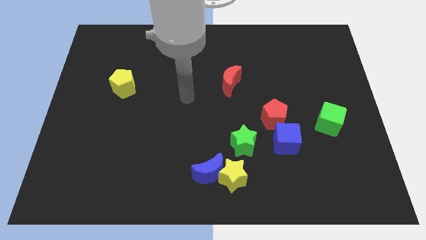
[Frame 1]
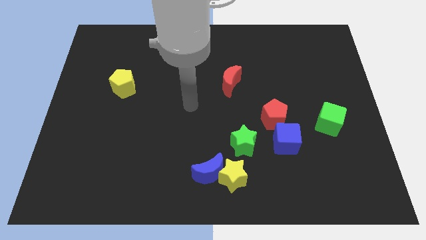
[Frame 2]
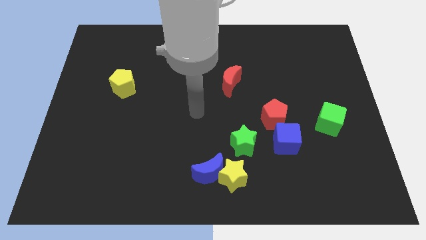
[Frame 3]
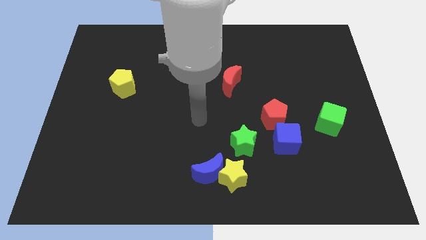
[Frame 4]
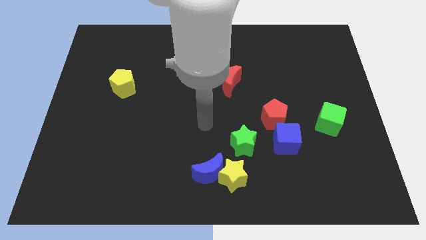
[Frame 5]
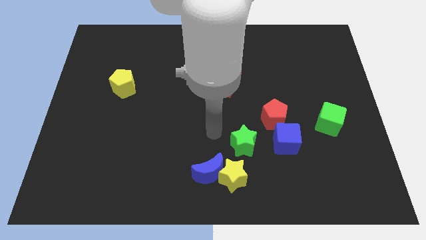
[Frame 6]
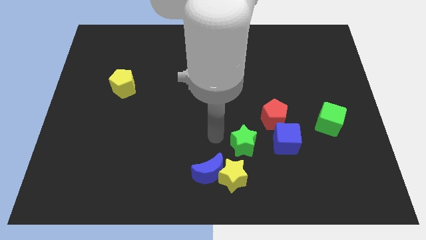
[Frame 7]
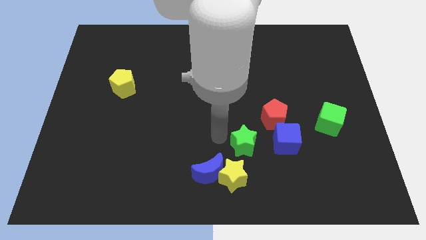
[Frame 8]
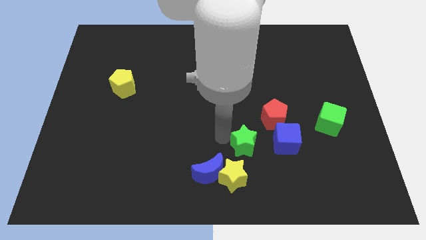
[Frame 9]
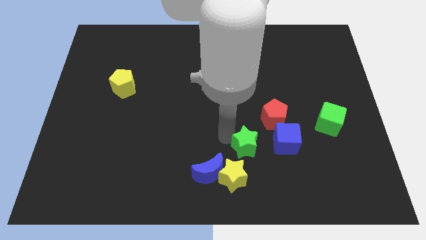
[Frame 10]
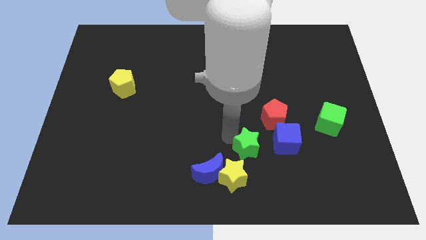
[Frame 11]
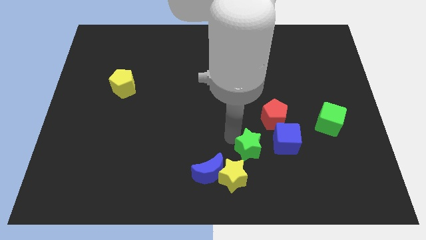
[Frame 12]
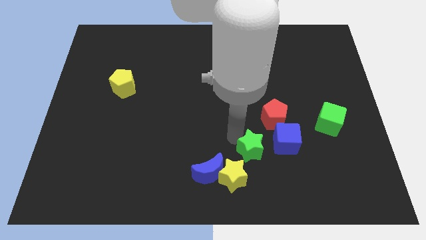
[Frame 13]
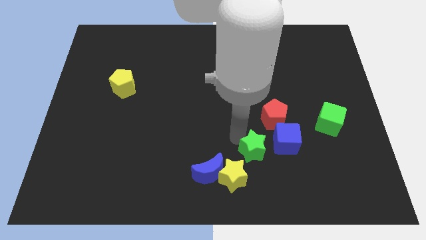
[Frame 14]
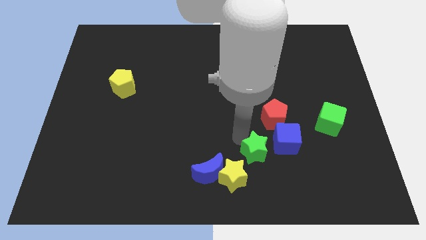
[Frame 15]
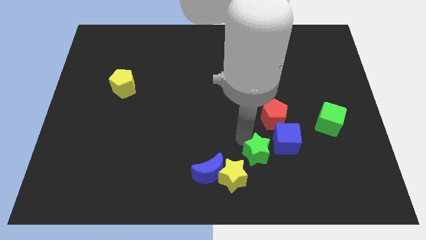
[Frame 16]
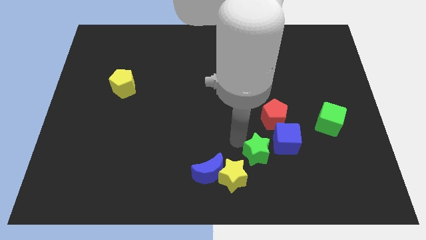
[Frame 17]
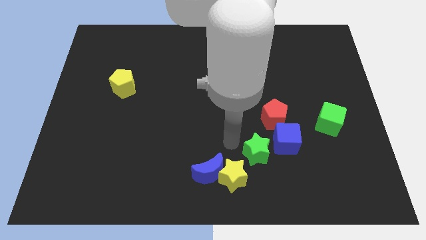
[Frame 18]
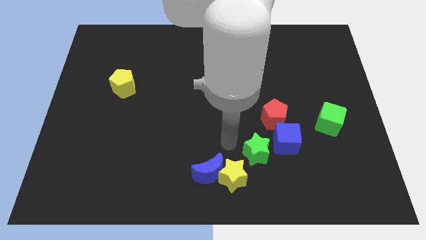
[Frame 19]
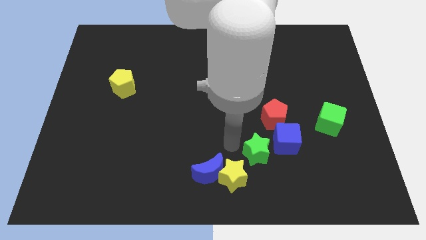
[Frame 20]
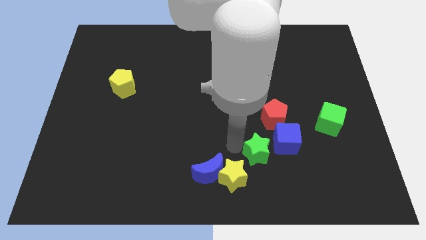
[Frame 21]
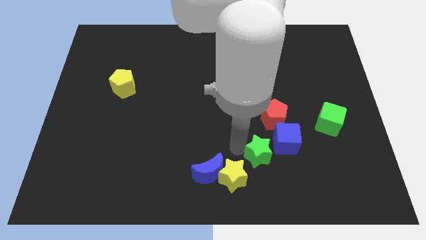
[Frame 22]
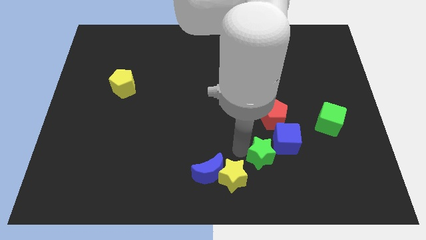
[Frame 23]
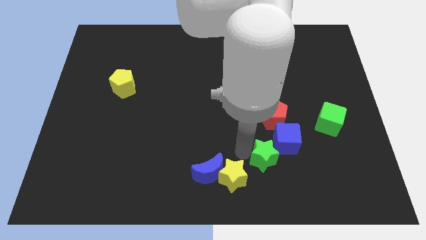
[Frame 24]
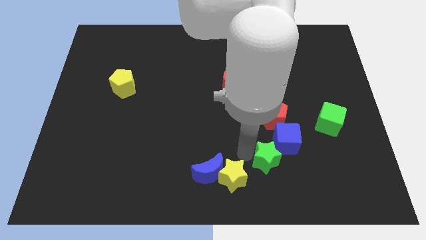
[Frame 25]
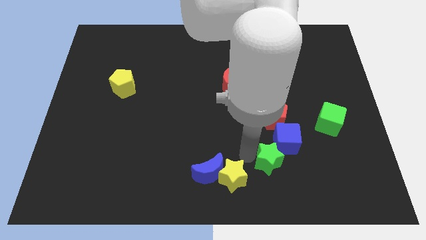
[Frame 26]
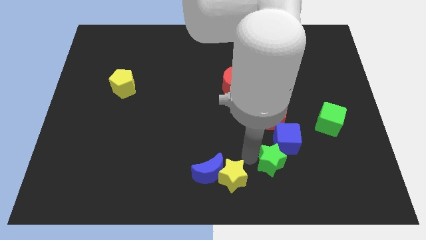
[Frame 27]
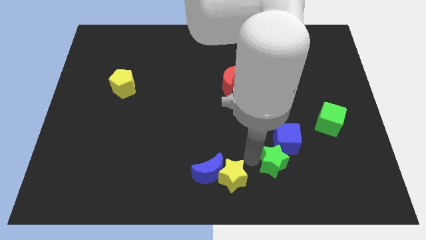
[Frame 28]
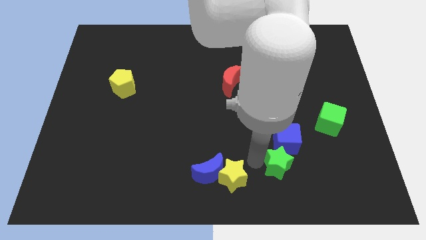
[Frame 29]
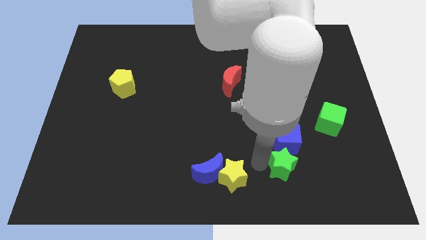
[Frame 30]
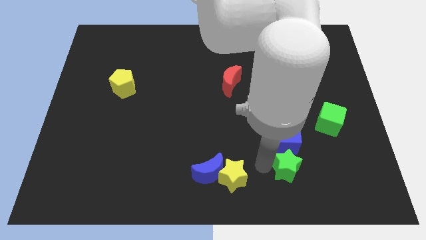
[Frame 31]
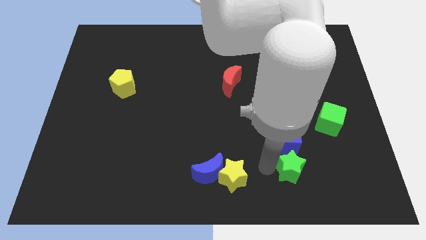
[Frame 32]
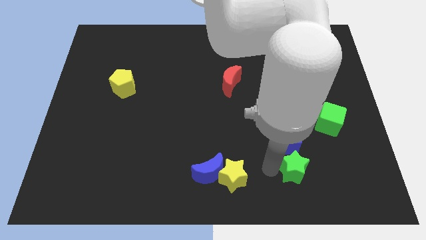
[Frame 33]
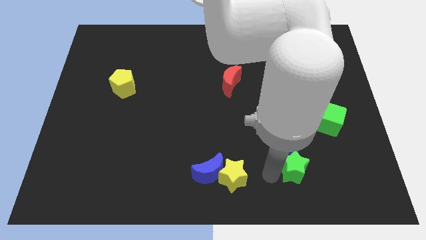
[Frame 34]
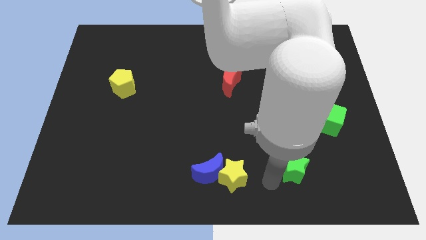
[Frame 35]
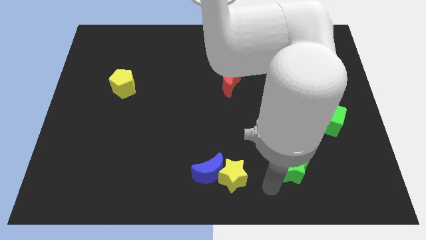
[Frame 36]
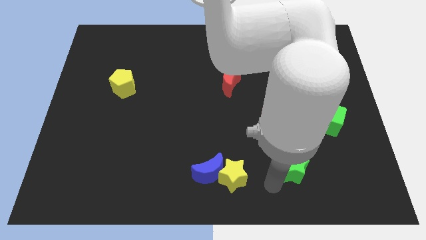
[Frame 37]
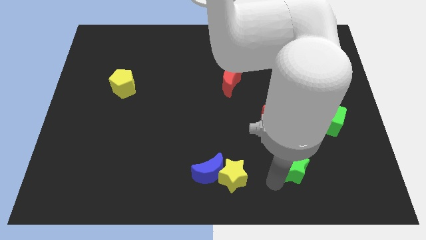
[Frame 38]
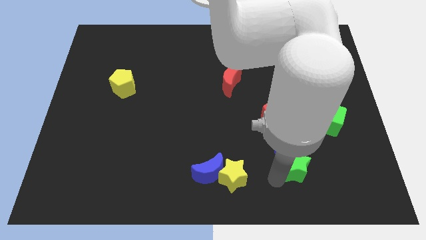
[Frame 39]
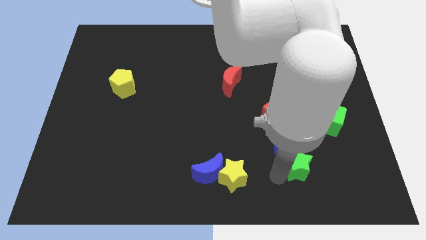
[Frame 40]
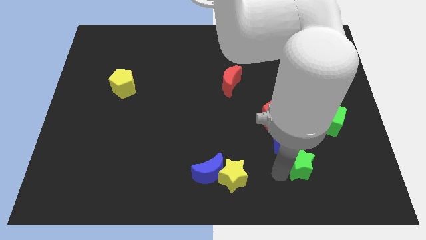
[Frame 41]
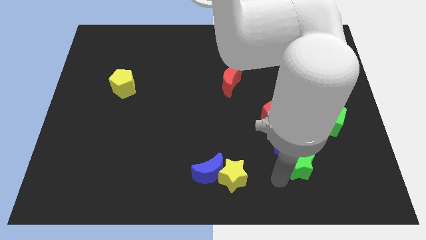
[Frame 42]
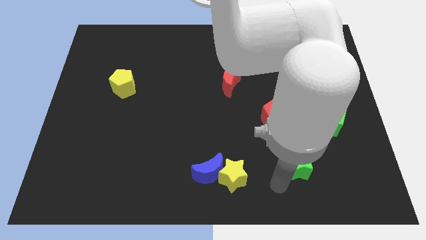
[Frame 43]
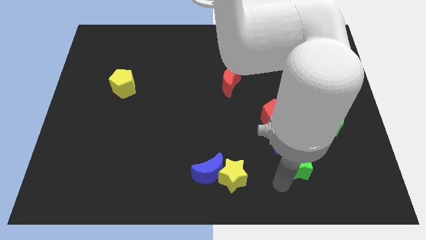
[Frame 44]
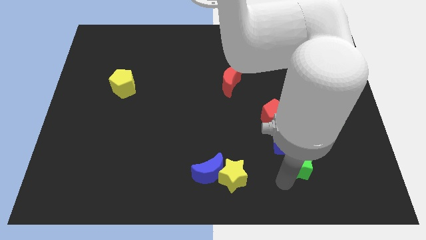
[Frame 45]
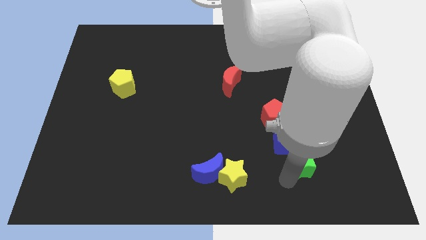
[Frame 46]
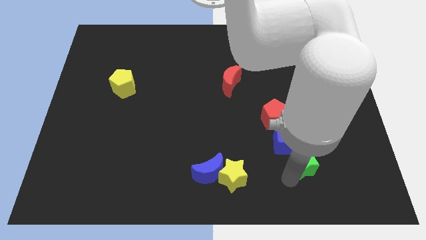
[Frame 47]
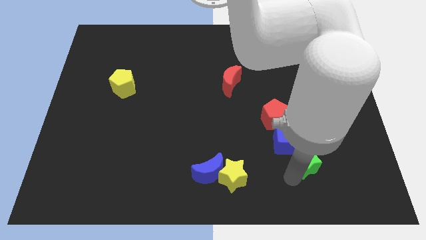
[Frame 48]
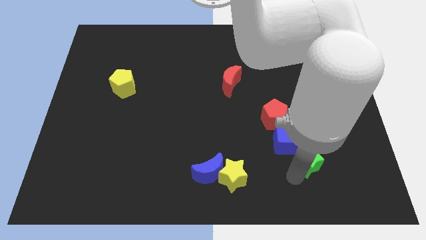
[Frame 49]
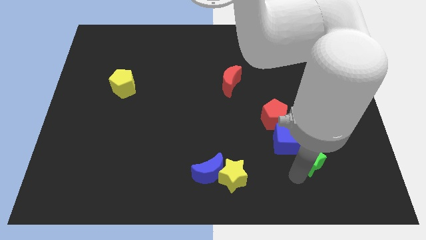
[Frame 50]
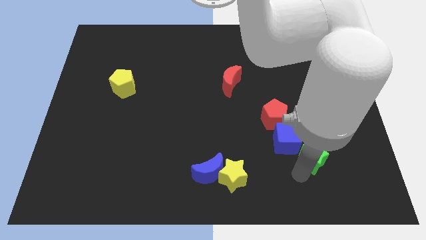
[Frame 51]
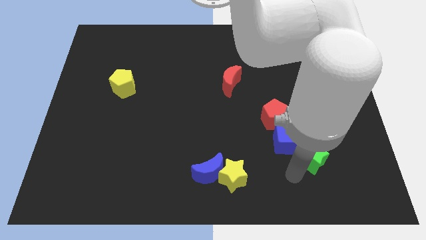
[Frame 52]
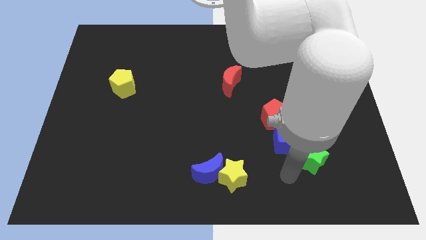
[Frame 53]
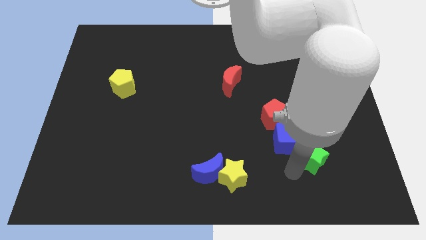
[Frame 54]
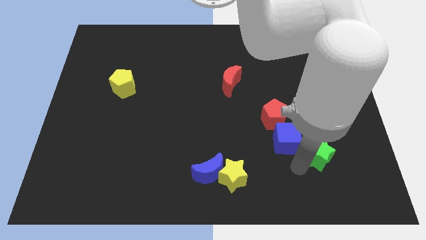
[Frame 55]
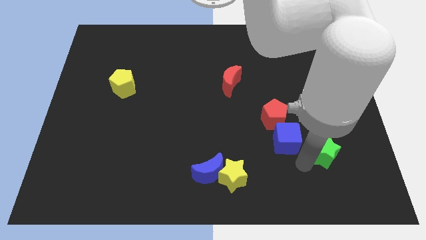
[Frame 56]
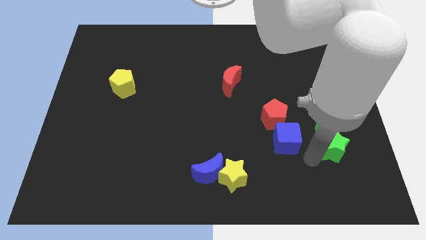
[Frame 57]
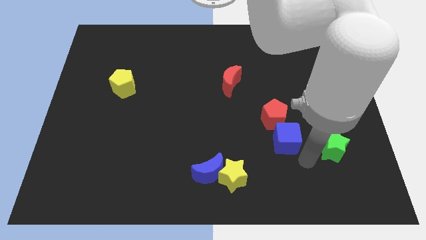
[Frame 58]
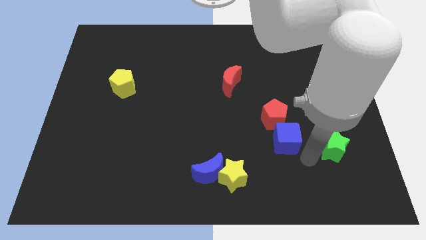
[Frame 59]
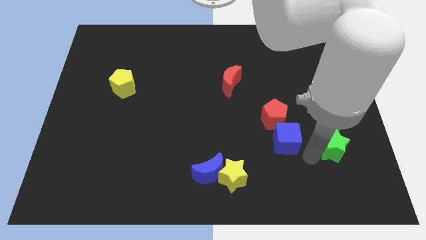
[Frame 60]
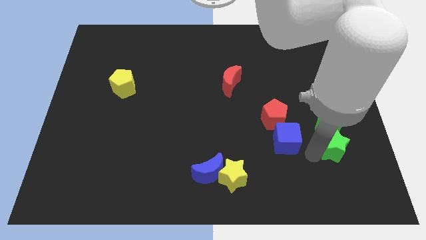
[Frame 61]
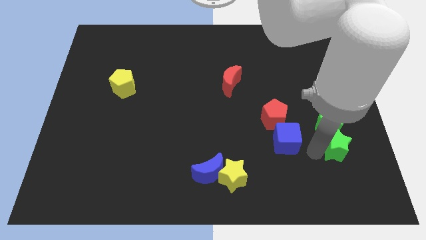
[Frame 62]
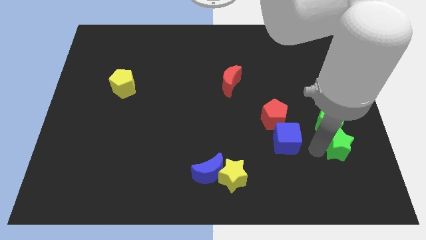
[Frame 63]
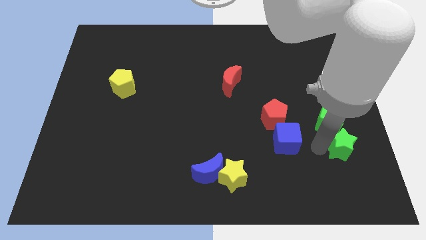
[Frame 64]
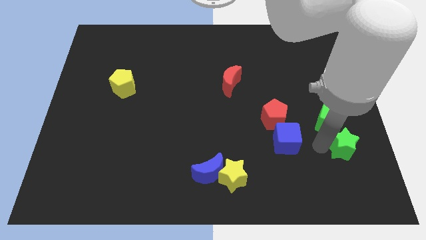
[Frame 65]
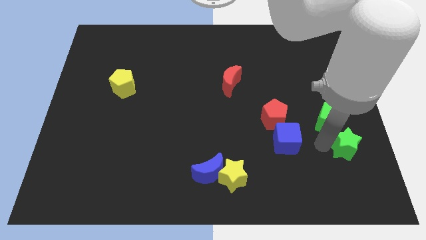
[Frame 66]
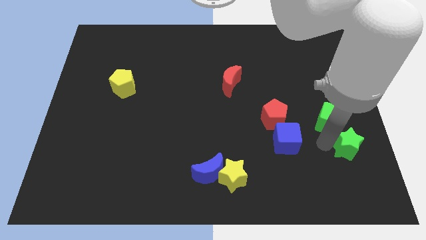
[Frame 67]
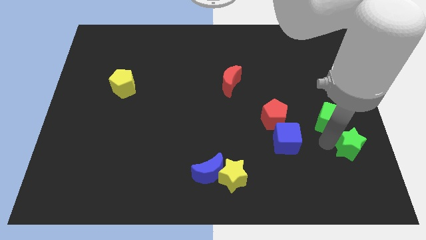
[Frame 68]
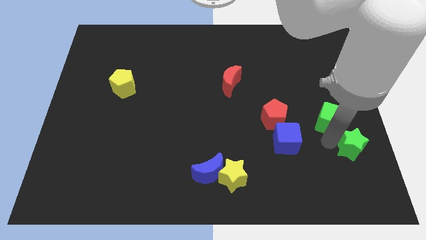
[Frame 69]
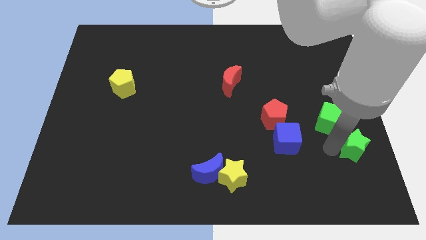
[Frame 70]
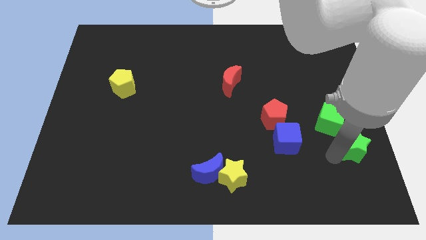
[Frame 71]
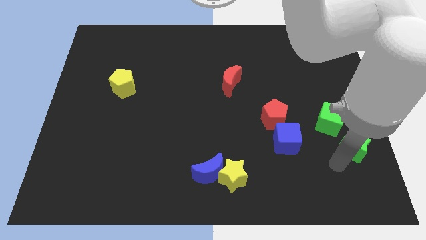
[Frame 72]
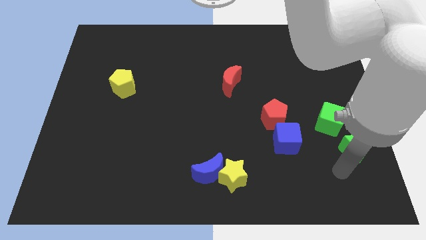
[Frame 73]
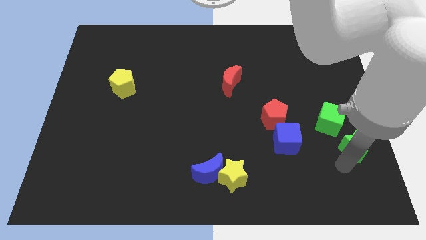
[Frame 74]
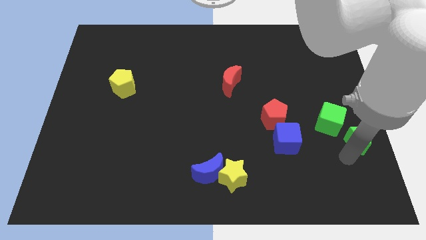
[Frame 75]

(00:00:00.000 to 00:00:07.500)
slide the green star to the right side
